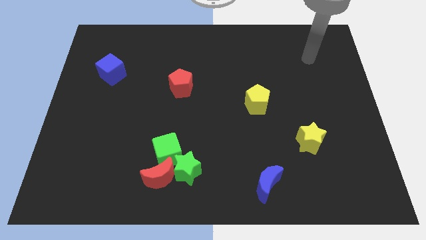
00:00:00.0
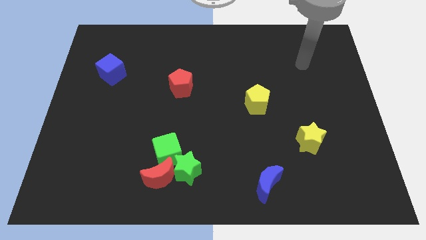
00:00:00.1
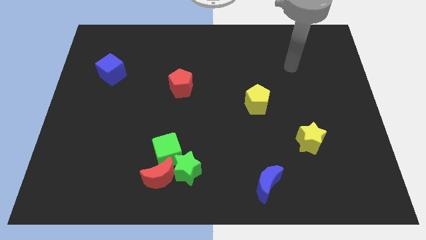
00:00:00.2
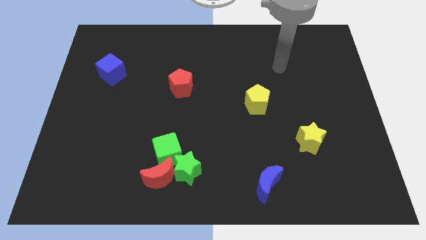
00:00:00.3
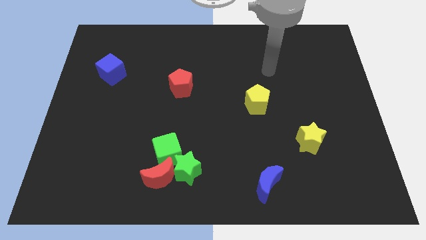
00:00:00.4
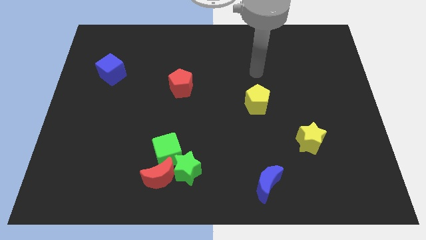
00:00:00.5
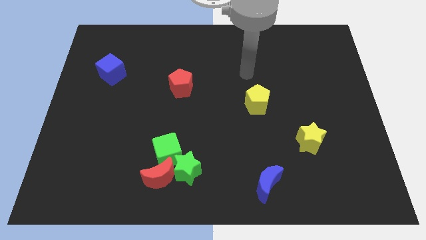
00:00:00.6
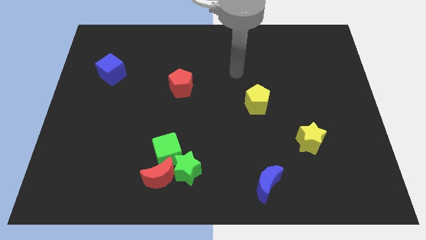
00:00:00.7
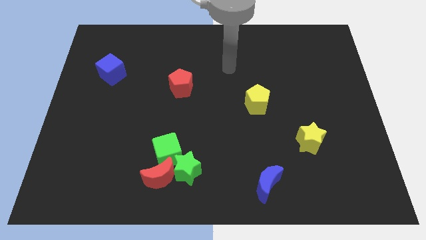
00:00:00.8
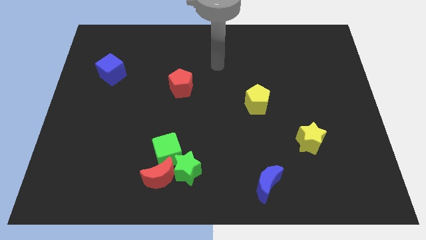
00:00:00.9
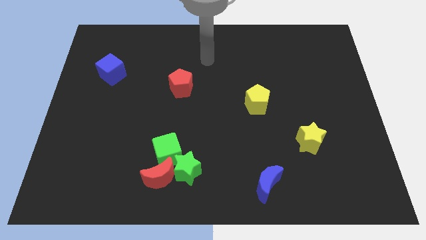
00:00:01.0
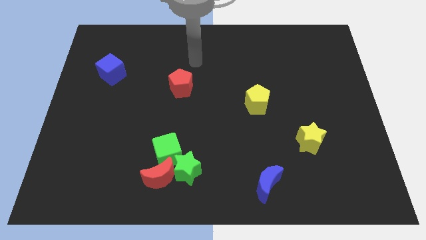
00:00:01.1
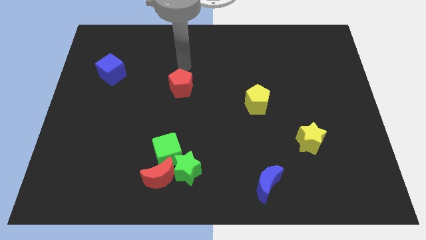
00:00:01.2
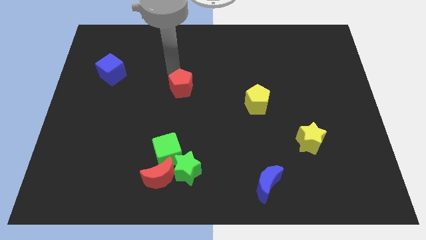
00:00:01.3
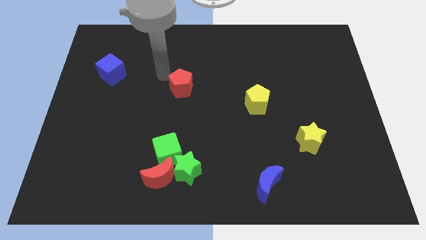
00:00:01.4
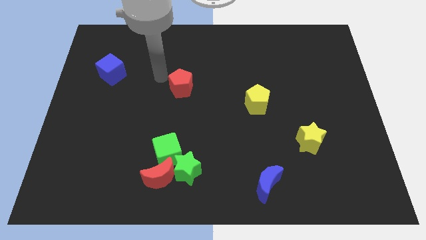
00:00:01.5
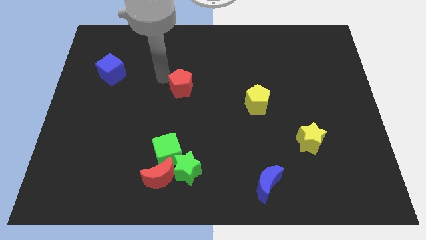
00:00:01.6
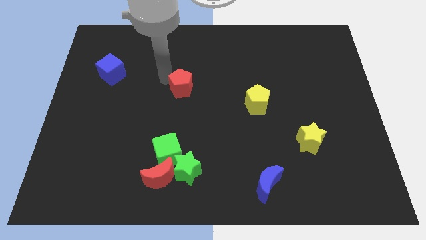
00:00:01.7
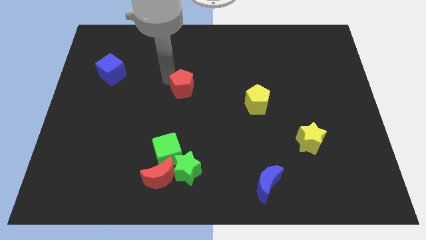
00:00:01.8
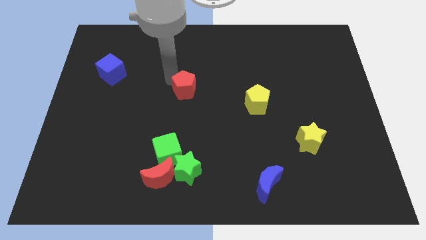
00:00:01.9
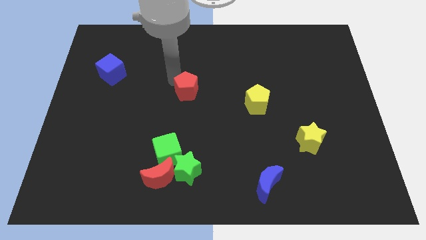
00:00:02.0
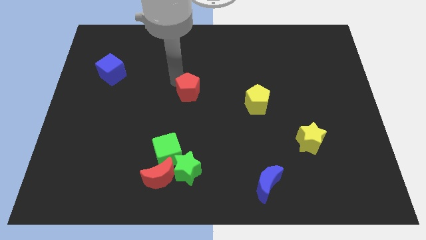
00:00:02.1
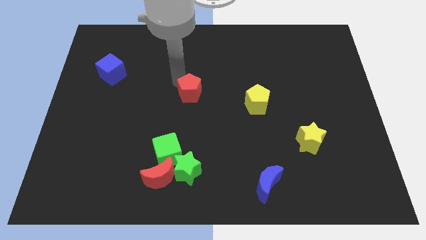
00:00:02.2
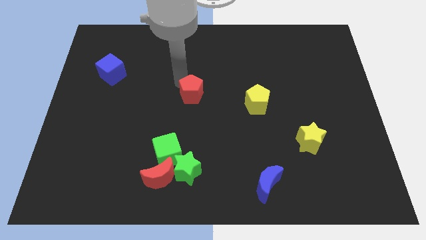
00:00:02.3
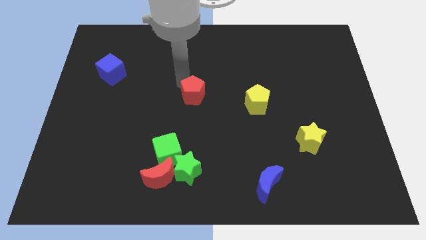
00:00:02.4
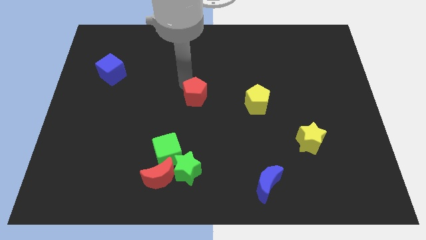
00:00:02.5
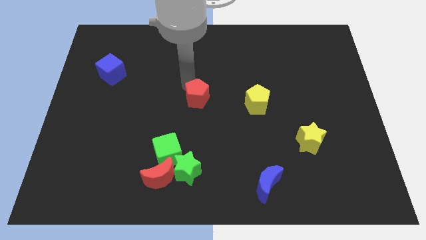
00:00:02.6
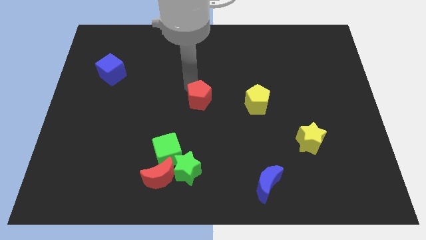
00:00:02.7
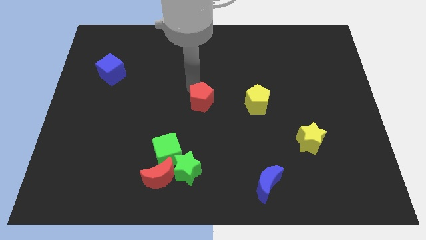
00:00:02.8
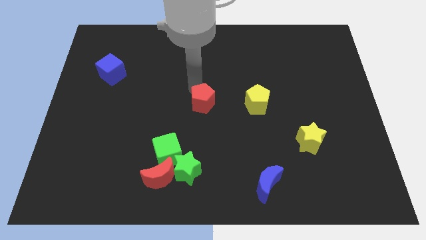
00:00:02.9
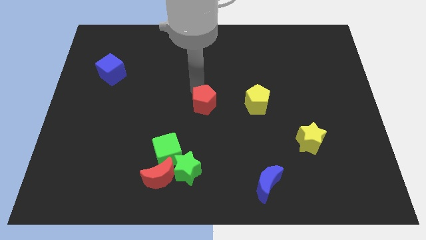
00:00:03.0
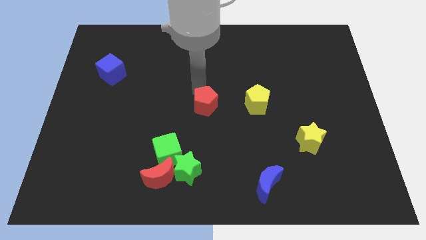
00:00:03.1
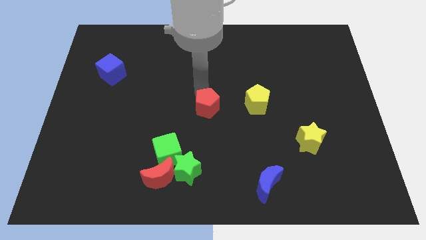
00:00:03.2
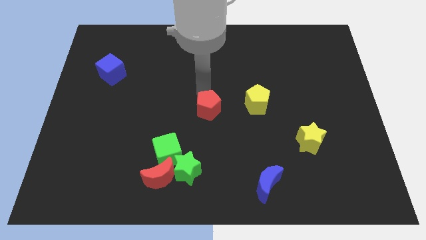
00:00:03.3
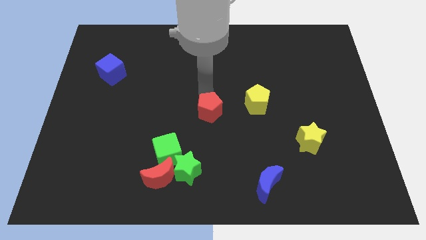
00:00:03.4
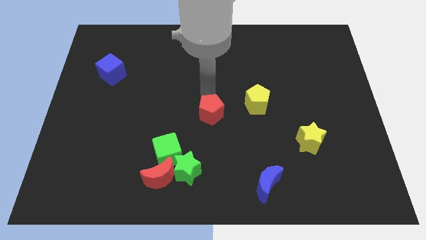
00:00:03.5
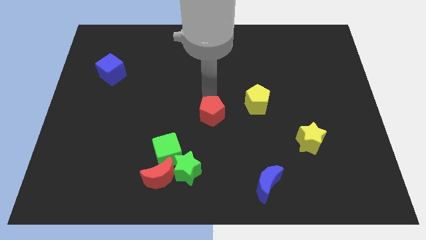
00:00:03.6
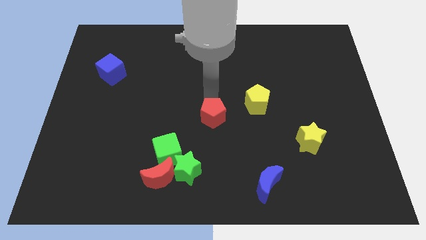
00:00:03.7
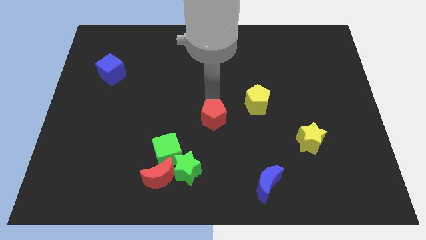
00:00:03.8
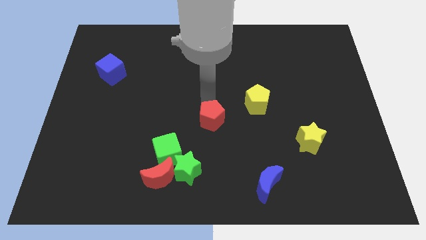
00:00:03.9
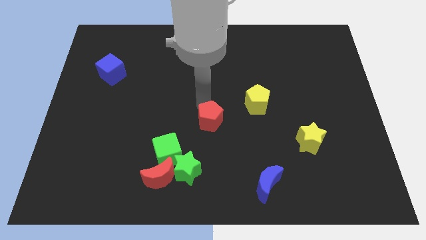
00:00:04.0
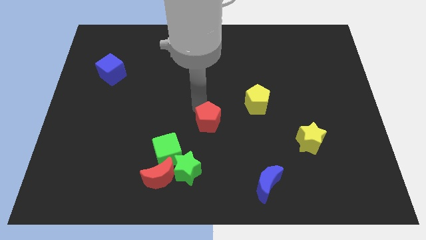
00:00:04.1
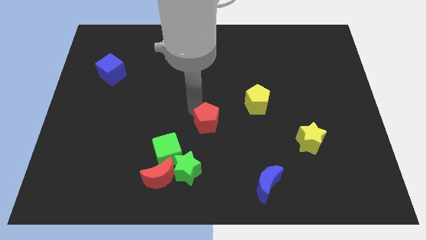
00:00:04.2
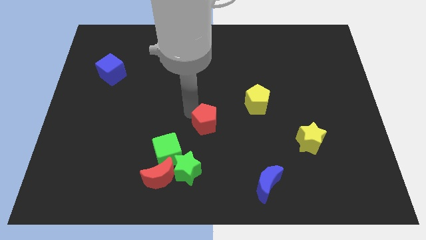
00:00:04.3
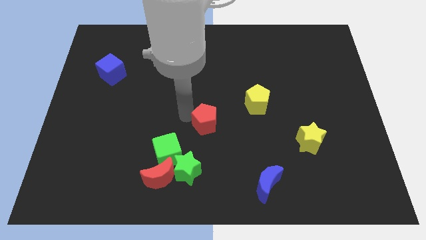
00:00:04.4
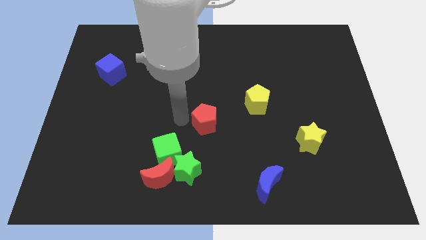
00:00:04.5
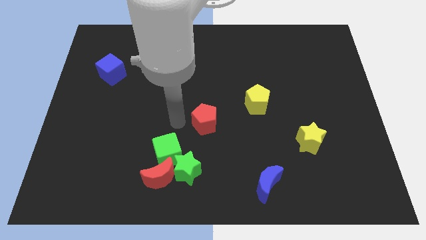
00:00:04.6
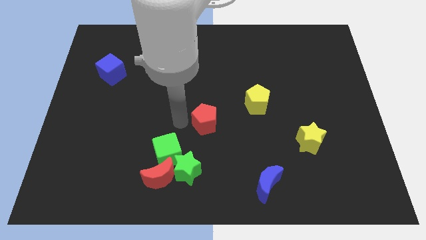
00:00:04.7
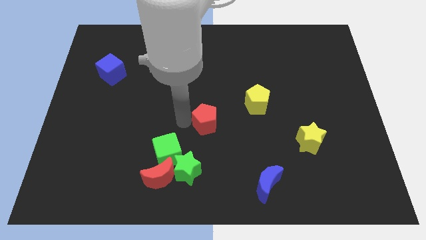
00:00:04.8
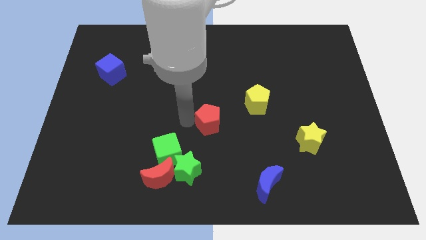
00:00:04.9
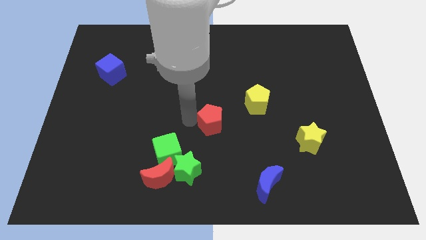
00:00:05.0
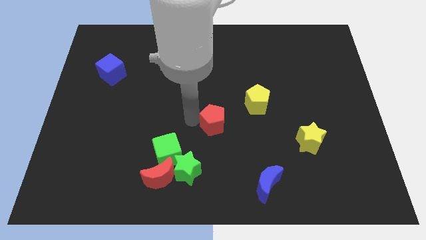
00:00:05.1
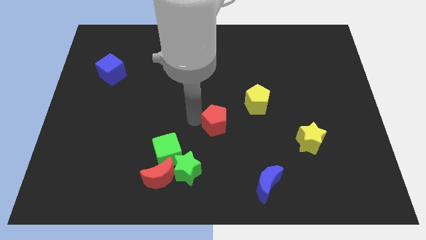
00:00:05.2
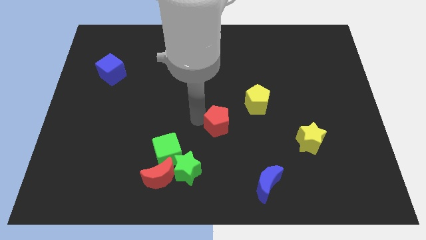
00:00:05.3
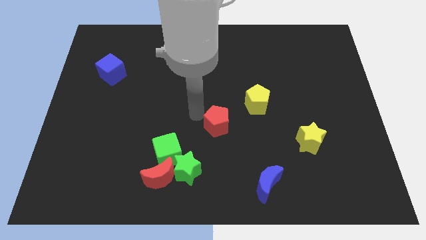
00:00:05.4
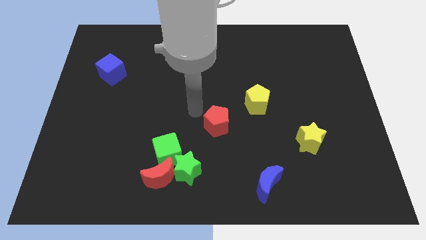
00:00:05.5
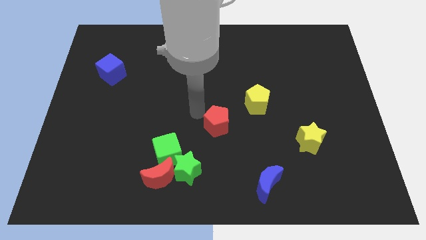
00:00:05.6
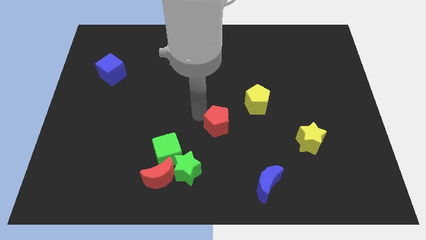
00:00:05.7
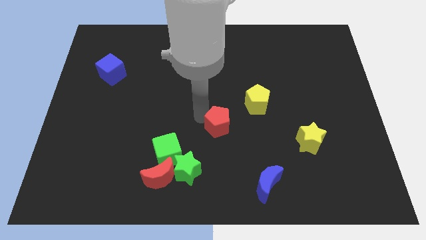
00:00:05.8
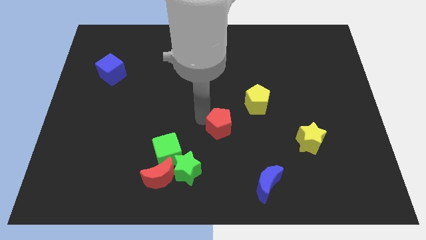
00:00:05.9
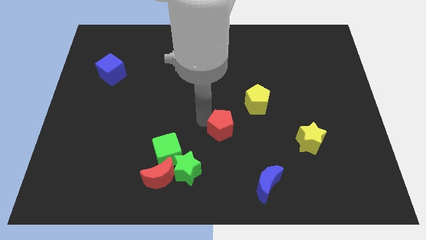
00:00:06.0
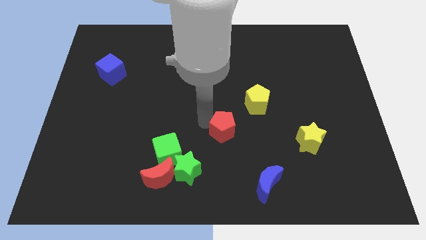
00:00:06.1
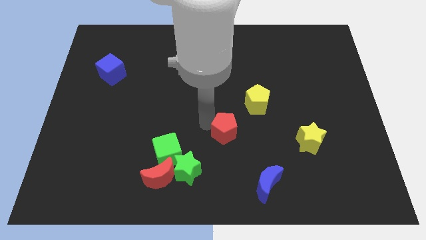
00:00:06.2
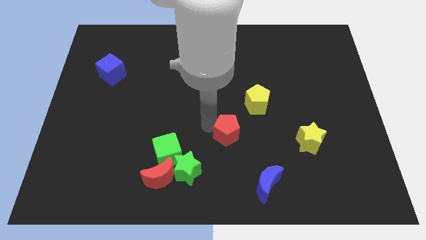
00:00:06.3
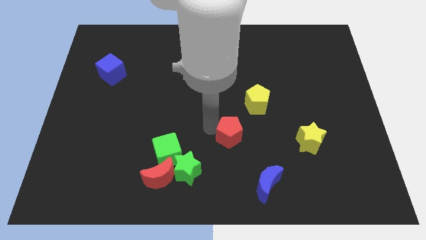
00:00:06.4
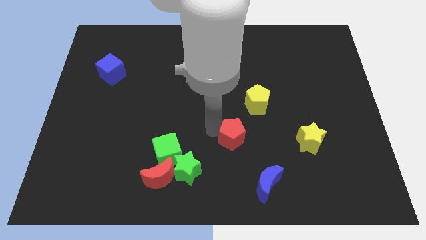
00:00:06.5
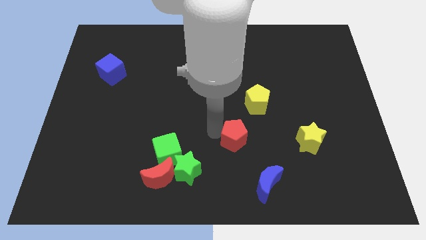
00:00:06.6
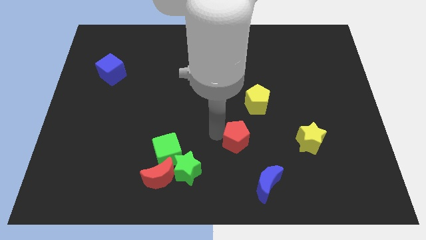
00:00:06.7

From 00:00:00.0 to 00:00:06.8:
move the red pentagon down and to the right diagonally

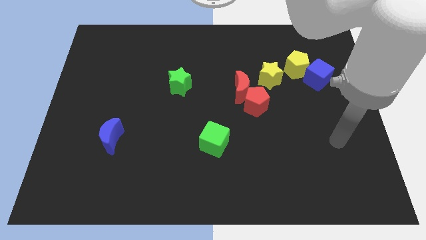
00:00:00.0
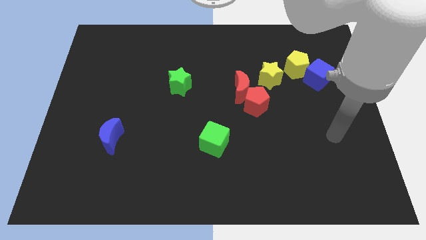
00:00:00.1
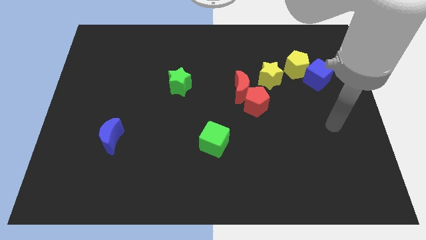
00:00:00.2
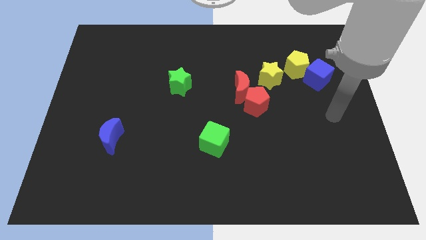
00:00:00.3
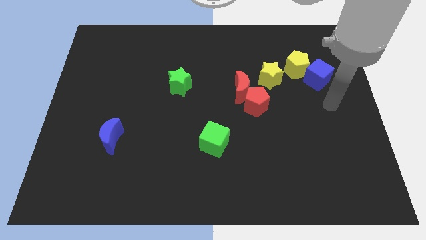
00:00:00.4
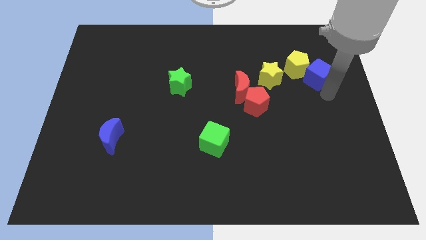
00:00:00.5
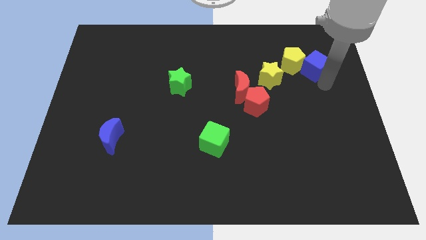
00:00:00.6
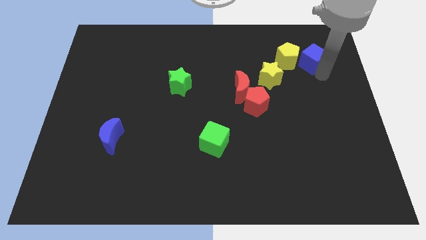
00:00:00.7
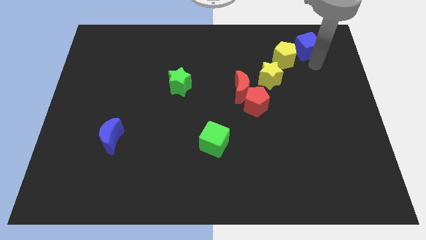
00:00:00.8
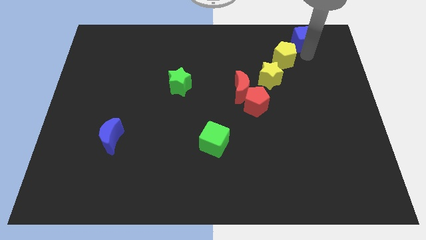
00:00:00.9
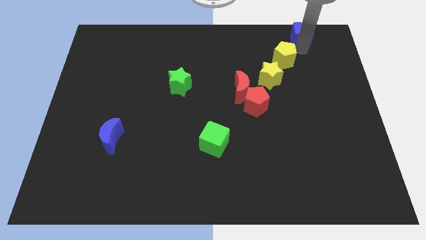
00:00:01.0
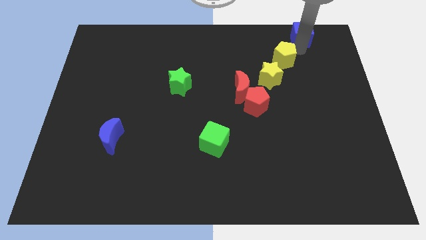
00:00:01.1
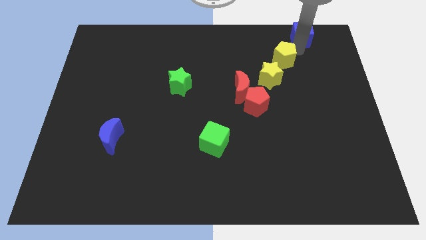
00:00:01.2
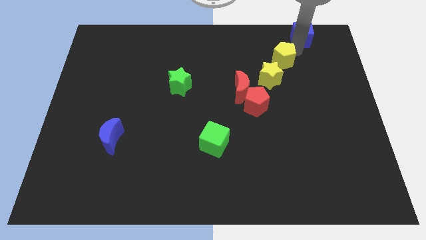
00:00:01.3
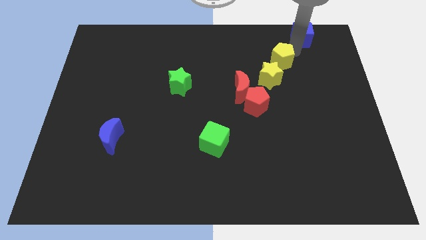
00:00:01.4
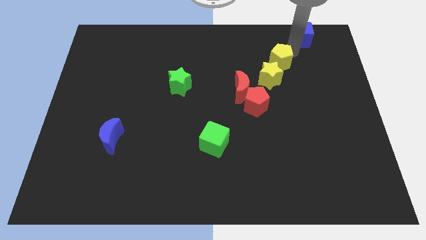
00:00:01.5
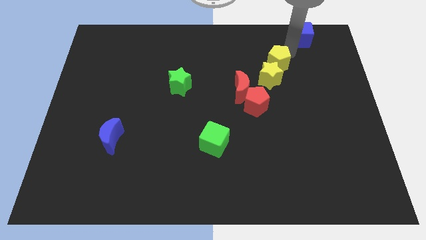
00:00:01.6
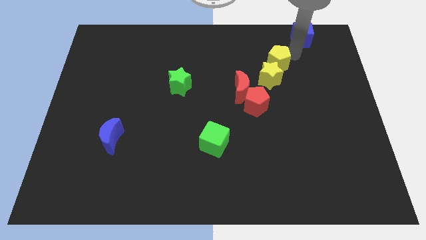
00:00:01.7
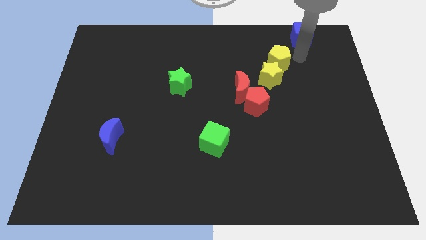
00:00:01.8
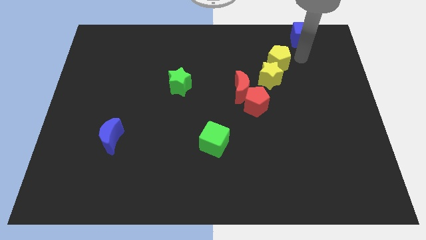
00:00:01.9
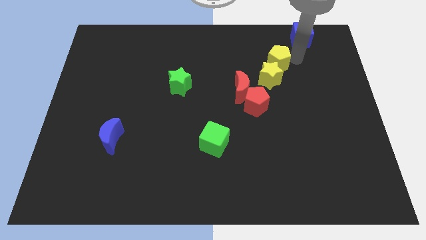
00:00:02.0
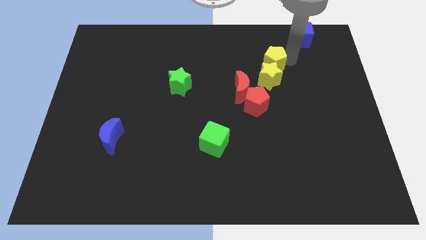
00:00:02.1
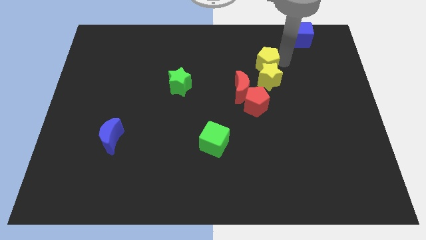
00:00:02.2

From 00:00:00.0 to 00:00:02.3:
slide the yellow pentagon to the left a little
